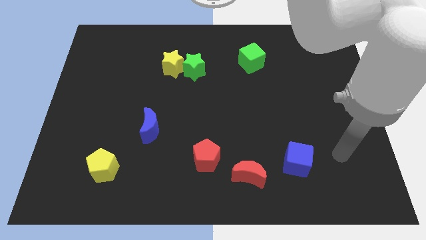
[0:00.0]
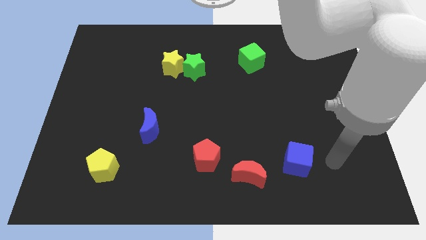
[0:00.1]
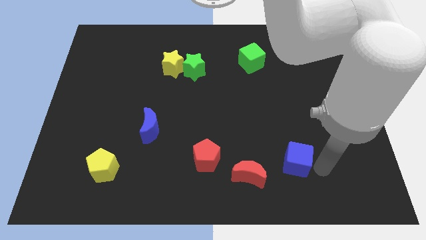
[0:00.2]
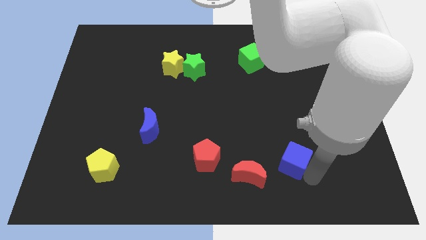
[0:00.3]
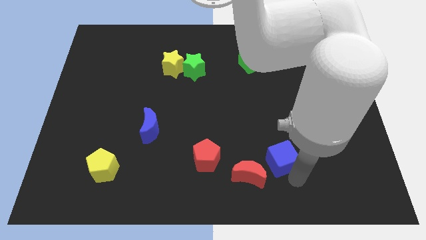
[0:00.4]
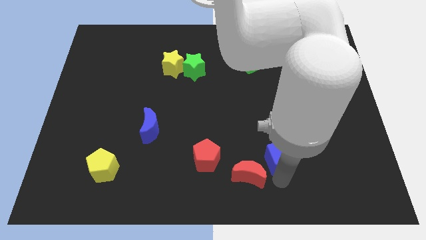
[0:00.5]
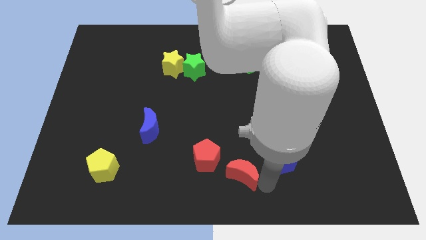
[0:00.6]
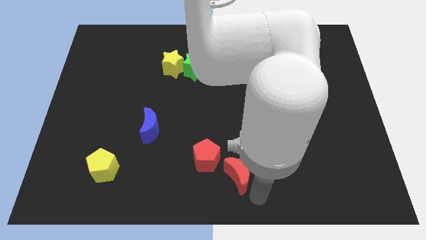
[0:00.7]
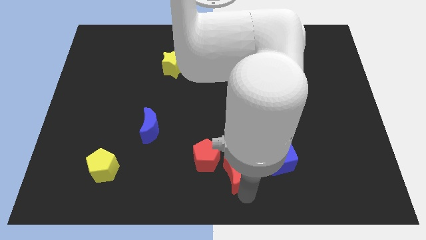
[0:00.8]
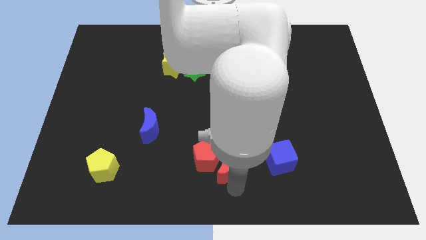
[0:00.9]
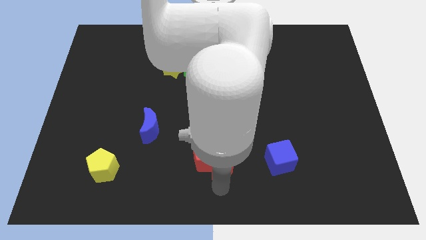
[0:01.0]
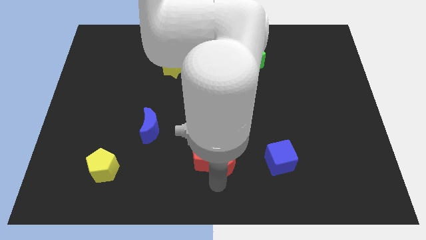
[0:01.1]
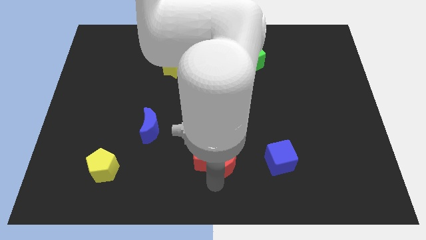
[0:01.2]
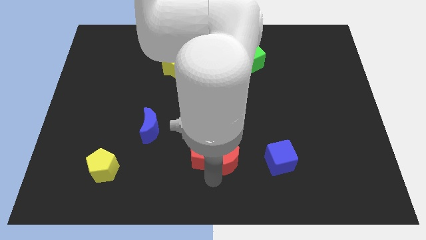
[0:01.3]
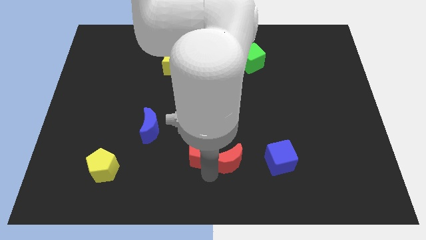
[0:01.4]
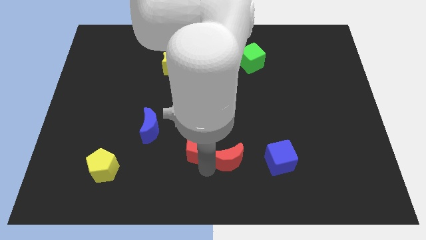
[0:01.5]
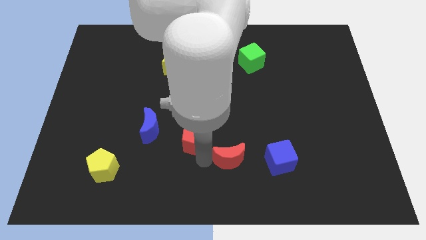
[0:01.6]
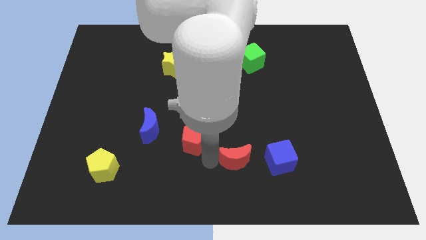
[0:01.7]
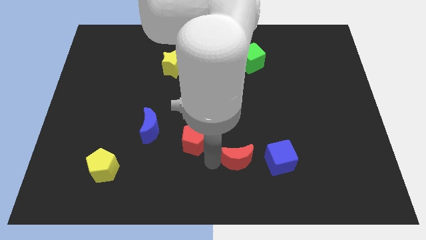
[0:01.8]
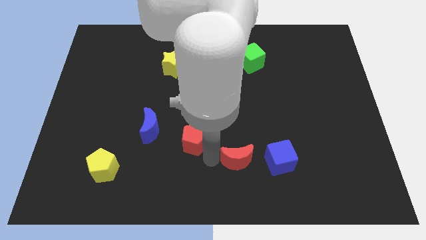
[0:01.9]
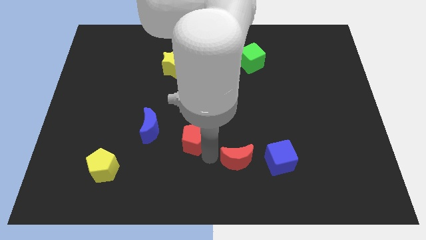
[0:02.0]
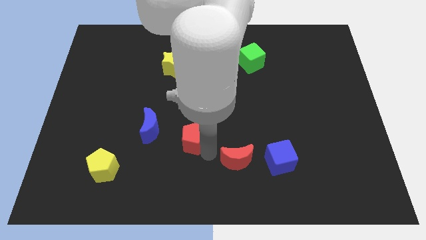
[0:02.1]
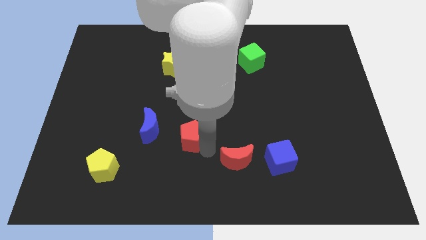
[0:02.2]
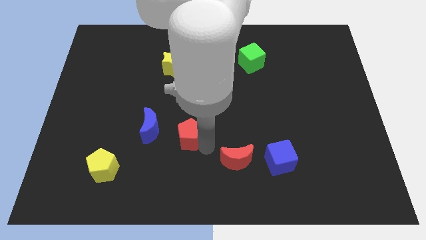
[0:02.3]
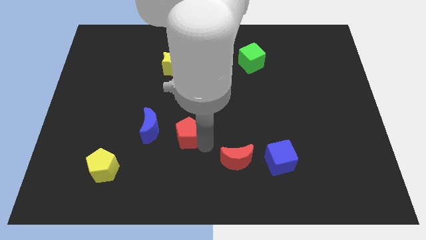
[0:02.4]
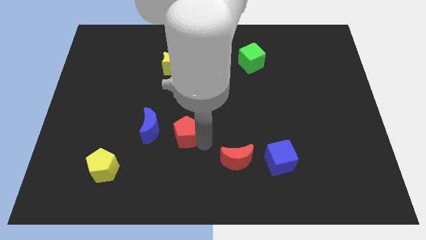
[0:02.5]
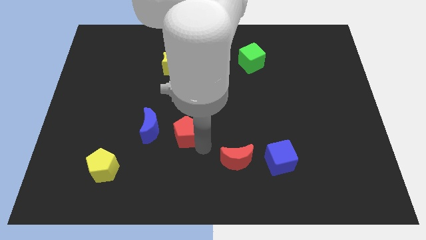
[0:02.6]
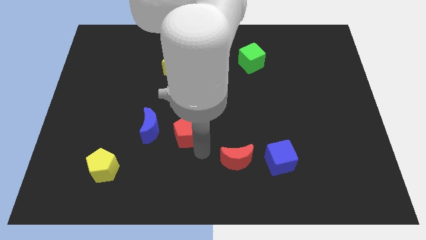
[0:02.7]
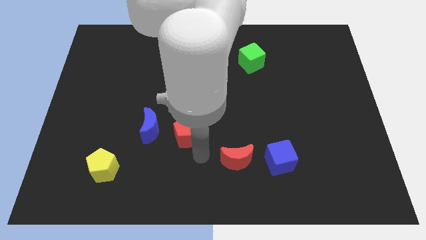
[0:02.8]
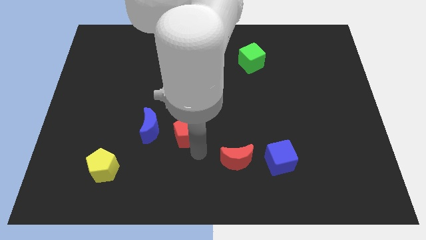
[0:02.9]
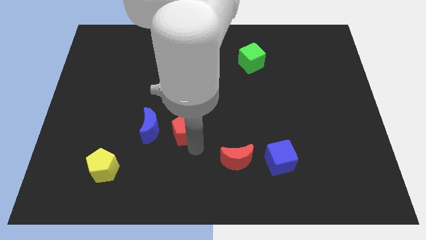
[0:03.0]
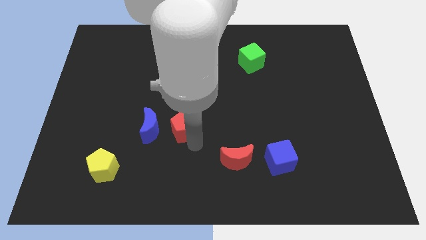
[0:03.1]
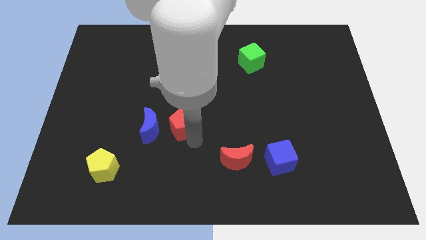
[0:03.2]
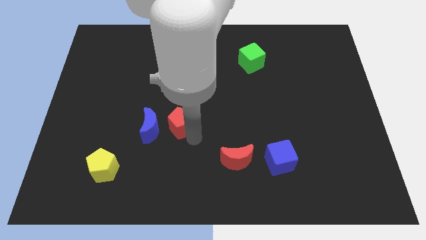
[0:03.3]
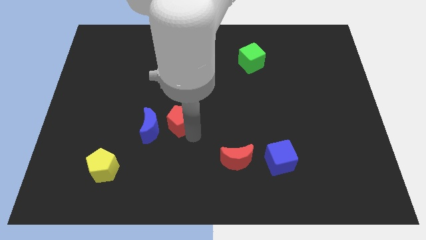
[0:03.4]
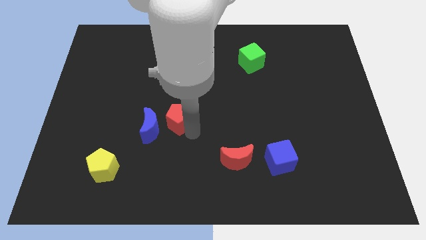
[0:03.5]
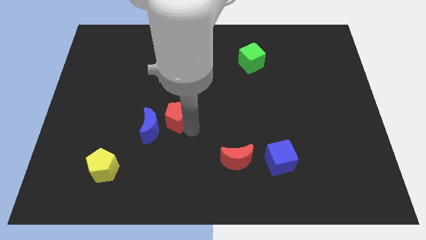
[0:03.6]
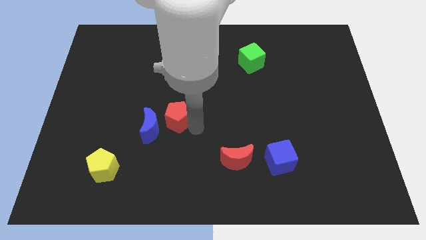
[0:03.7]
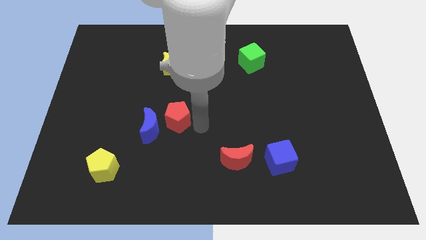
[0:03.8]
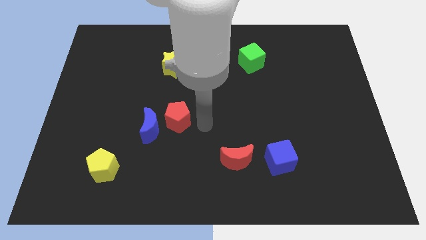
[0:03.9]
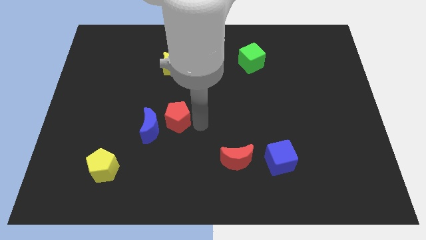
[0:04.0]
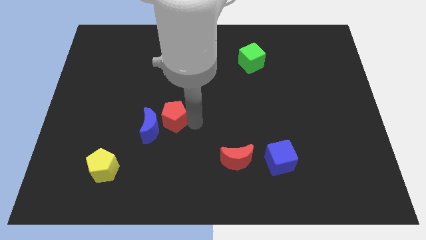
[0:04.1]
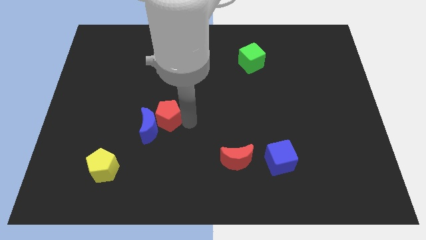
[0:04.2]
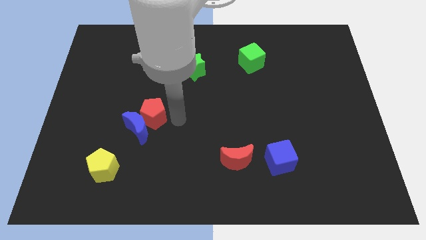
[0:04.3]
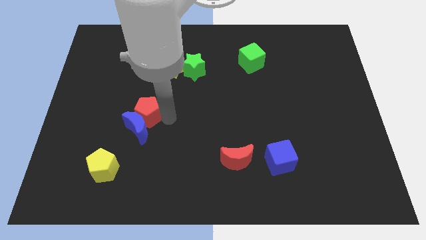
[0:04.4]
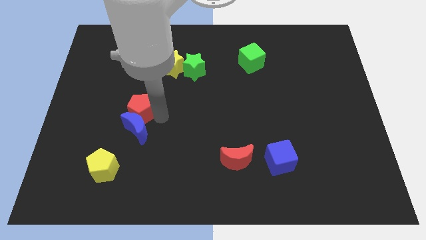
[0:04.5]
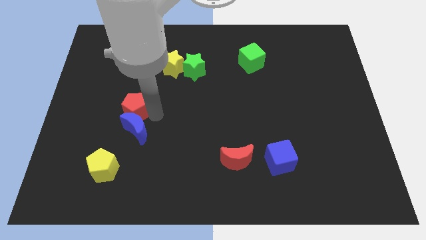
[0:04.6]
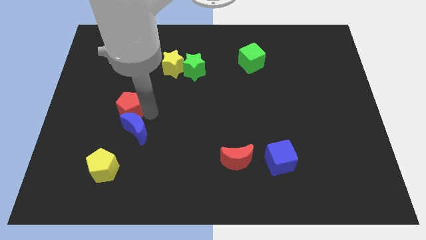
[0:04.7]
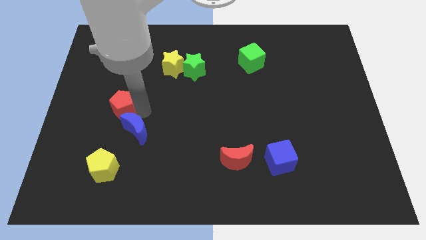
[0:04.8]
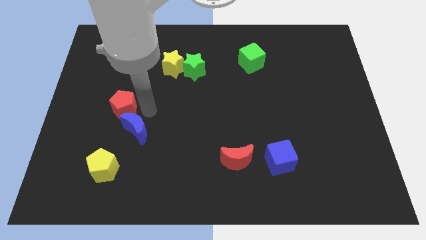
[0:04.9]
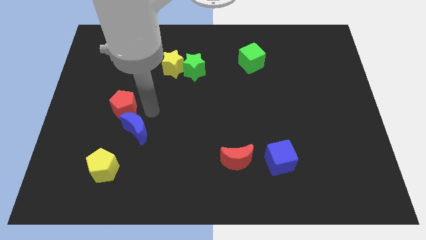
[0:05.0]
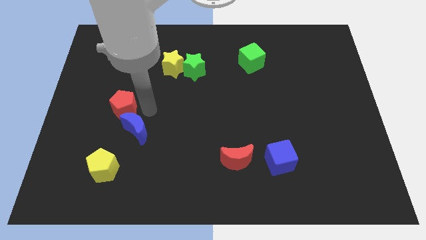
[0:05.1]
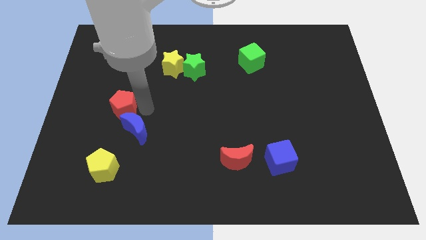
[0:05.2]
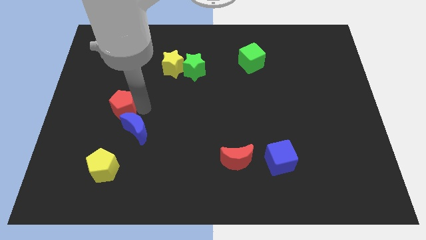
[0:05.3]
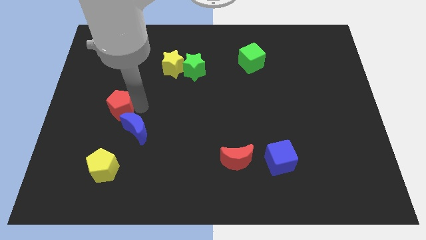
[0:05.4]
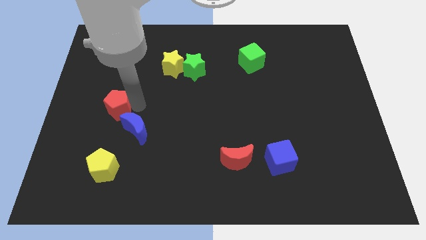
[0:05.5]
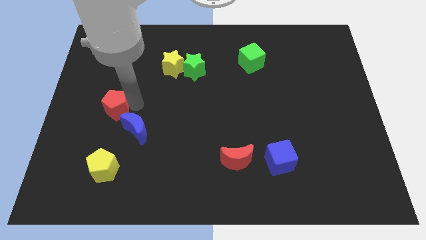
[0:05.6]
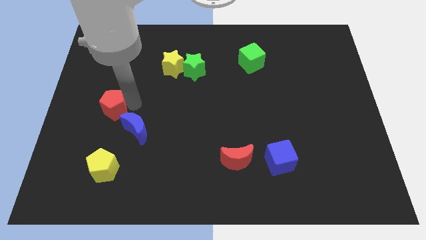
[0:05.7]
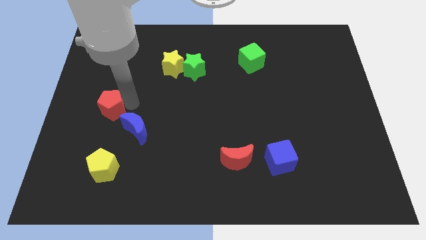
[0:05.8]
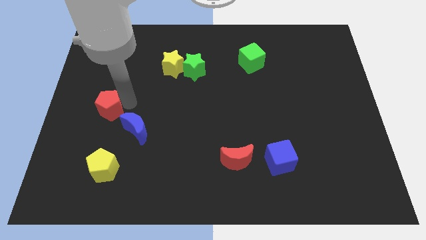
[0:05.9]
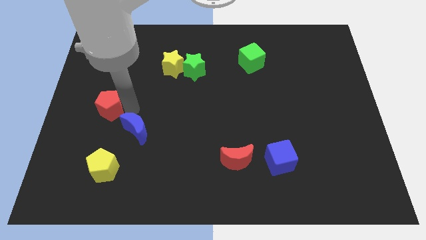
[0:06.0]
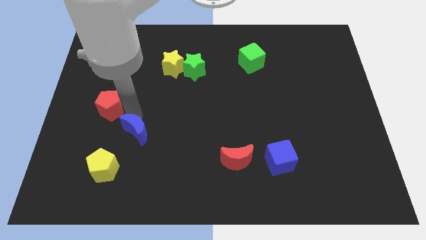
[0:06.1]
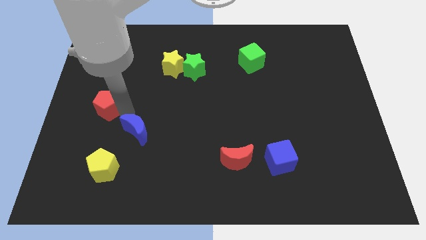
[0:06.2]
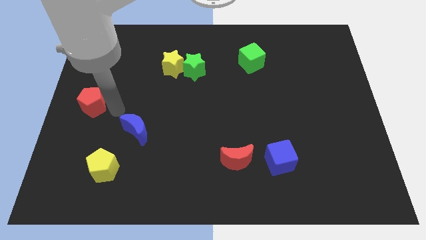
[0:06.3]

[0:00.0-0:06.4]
put the red pentagon to the left side of the board

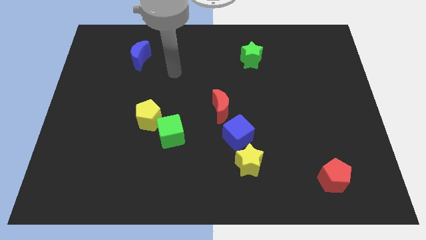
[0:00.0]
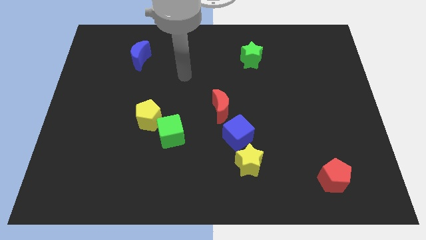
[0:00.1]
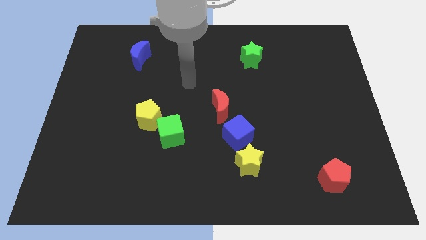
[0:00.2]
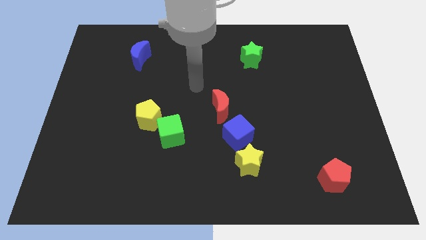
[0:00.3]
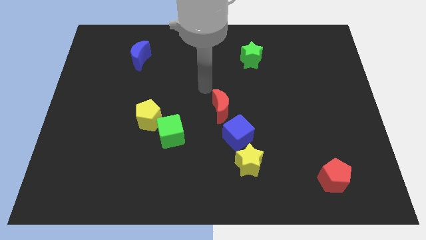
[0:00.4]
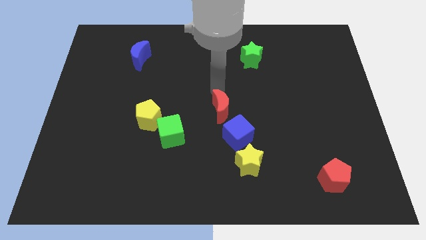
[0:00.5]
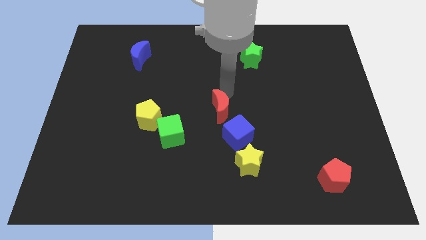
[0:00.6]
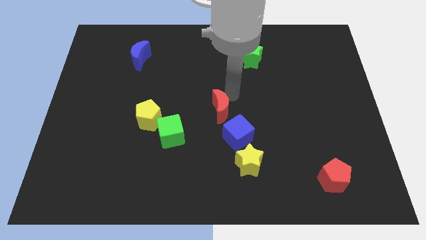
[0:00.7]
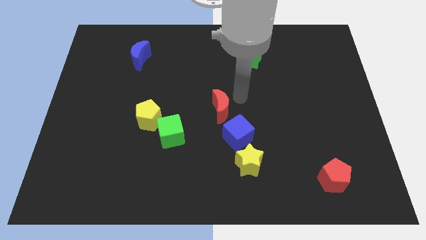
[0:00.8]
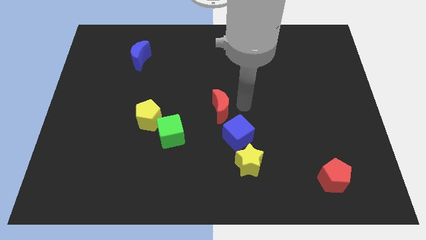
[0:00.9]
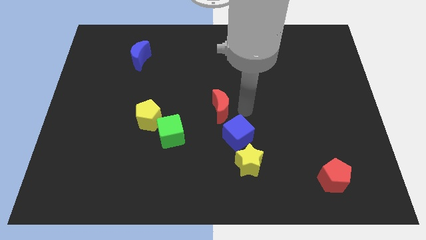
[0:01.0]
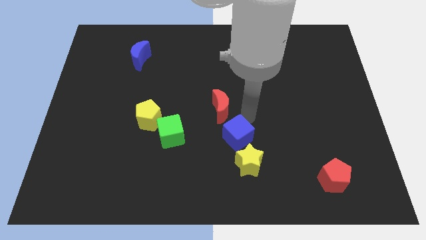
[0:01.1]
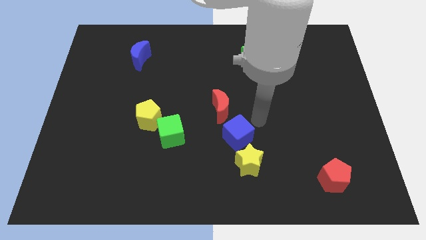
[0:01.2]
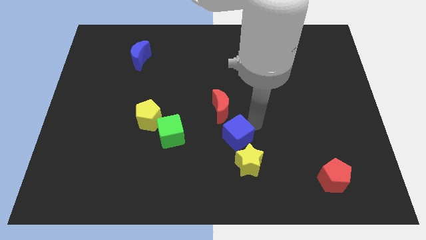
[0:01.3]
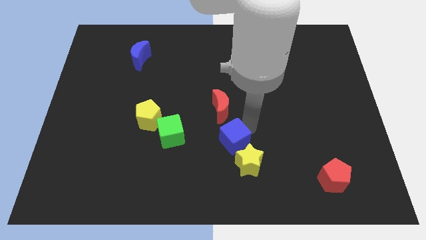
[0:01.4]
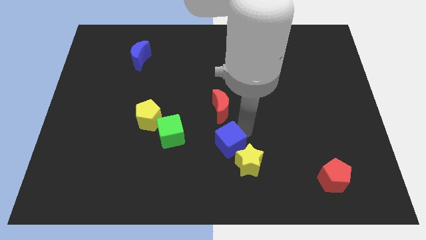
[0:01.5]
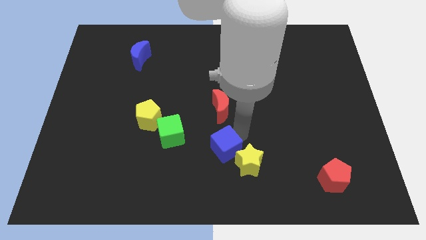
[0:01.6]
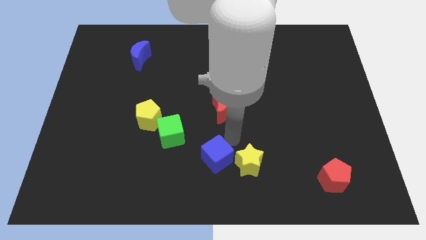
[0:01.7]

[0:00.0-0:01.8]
slide the blue cube to the bottom side
